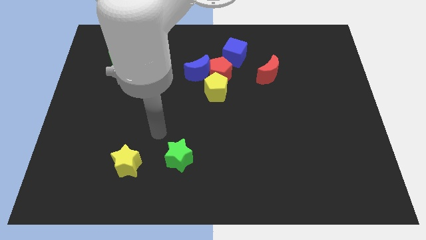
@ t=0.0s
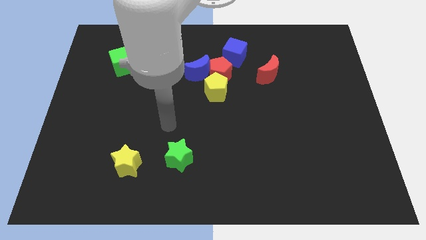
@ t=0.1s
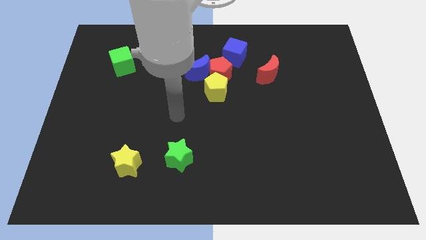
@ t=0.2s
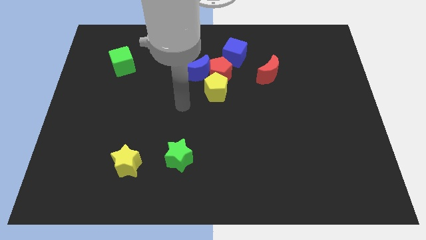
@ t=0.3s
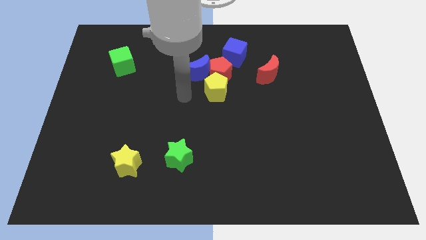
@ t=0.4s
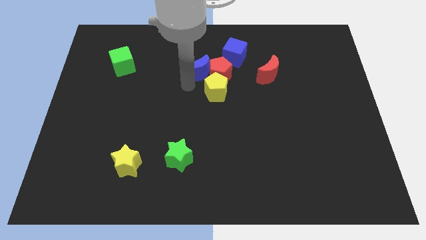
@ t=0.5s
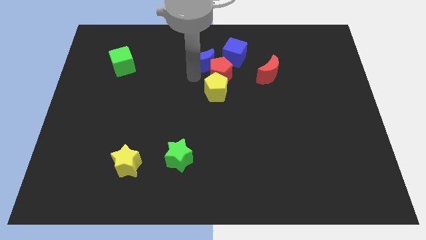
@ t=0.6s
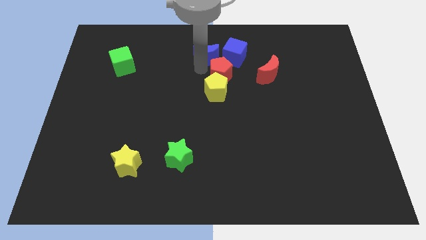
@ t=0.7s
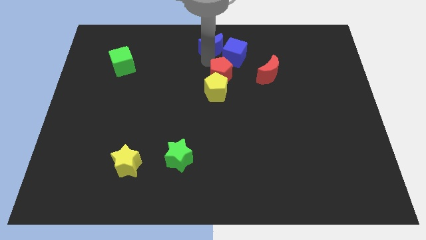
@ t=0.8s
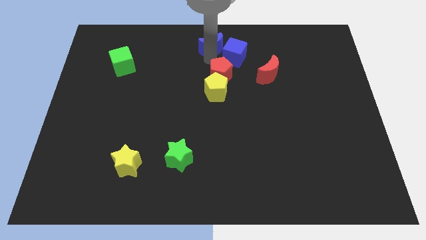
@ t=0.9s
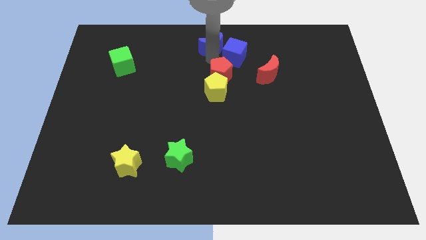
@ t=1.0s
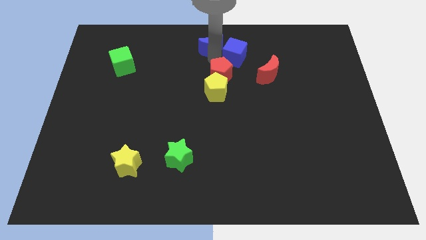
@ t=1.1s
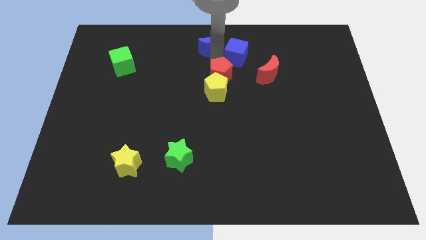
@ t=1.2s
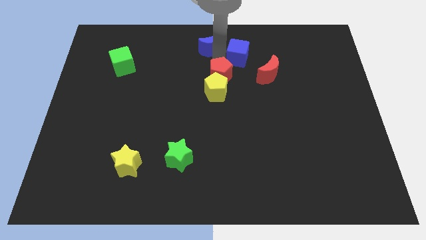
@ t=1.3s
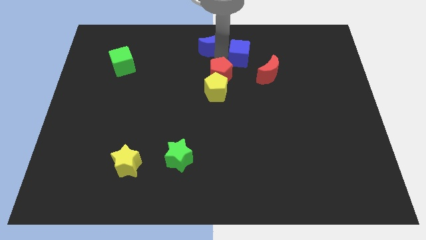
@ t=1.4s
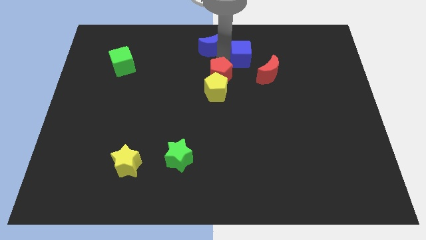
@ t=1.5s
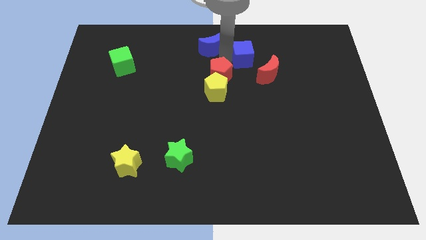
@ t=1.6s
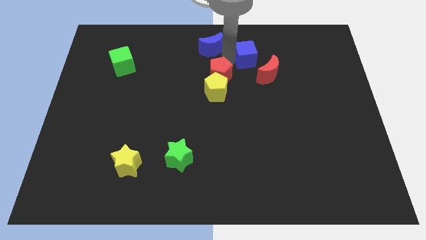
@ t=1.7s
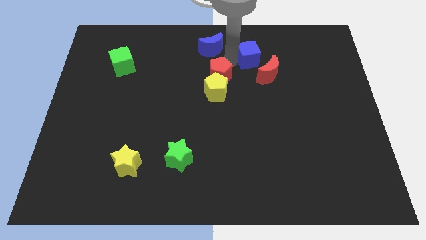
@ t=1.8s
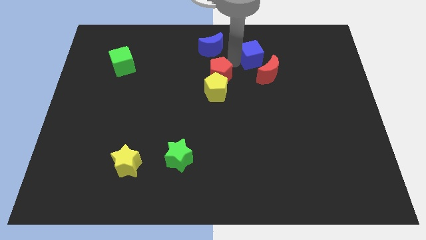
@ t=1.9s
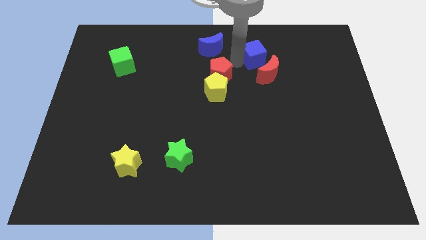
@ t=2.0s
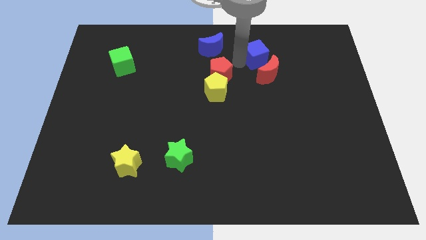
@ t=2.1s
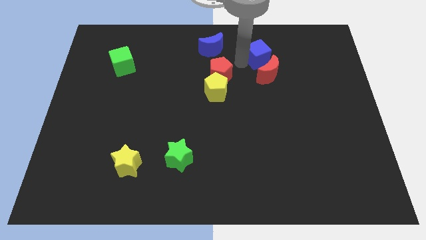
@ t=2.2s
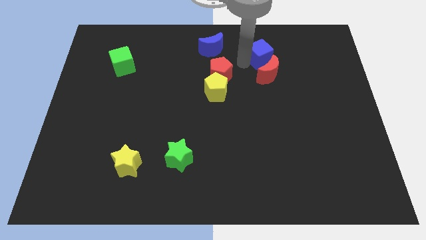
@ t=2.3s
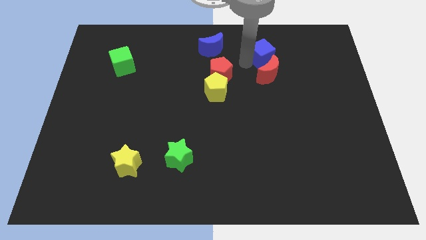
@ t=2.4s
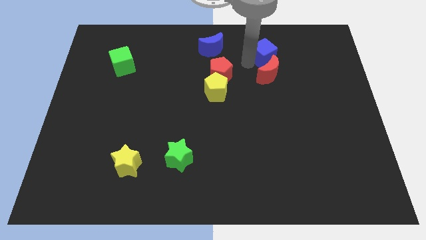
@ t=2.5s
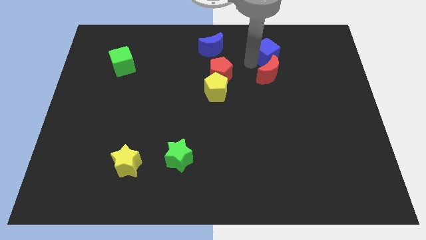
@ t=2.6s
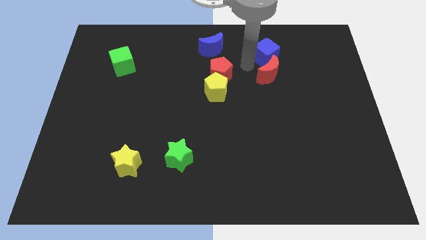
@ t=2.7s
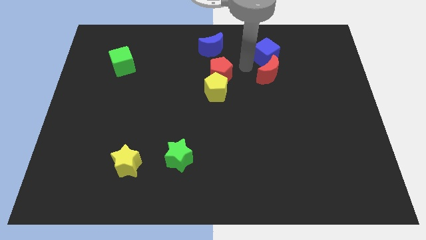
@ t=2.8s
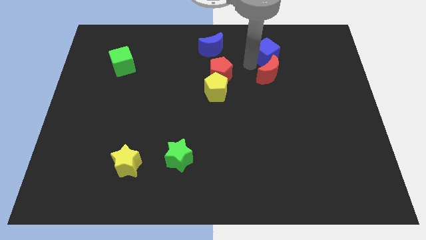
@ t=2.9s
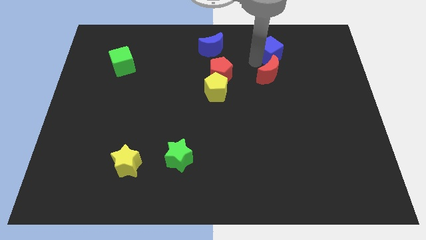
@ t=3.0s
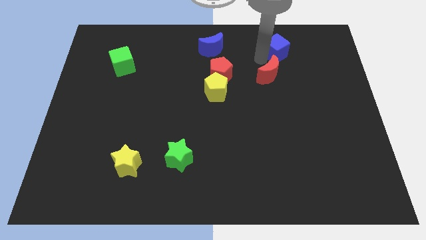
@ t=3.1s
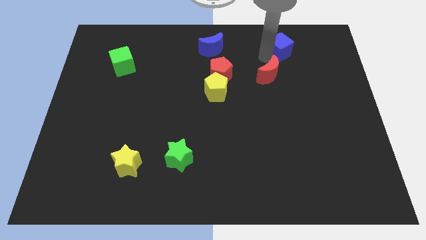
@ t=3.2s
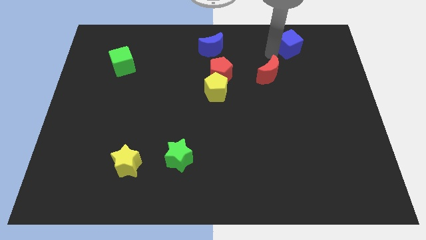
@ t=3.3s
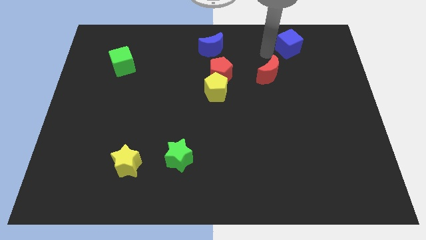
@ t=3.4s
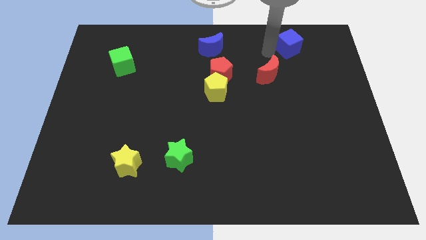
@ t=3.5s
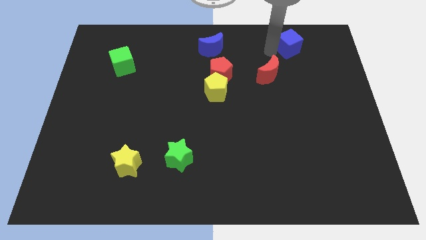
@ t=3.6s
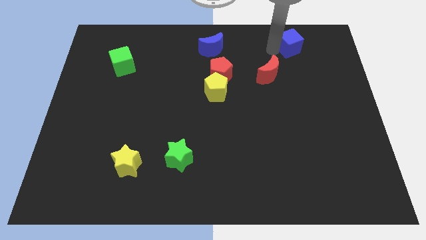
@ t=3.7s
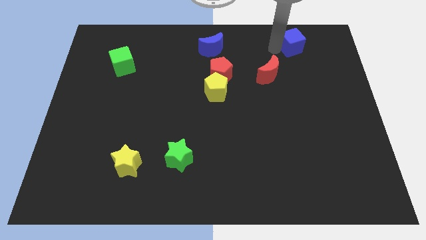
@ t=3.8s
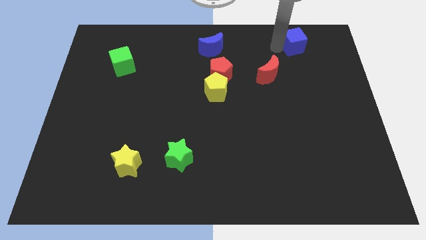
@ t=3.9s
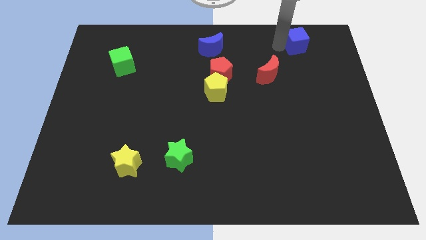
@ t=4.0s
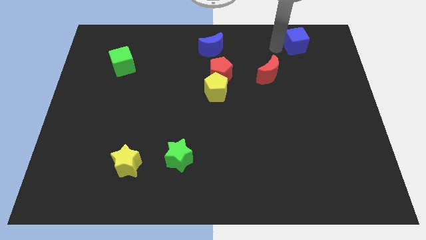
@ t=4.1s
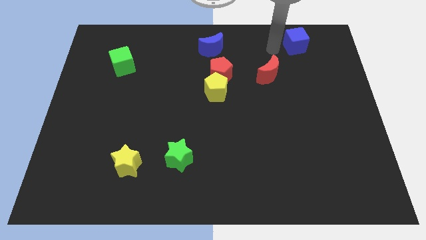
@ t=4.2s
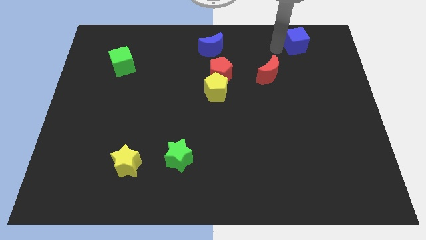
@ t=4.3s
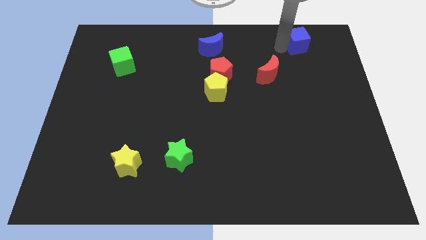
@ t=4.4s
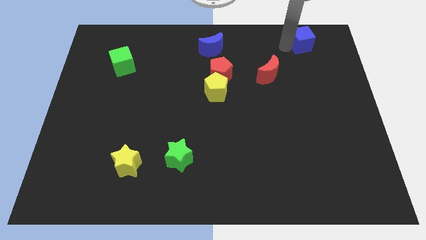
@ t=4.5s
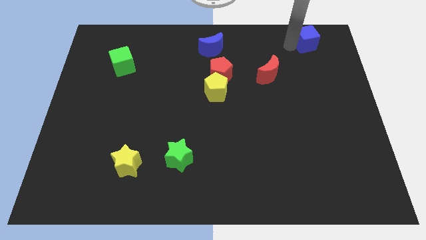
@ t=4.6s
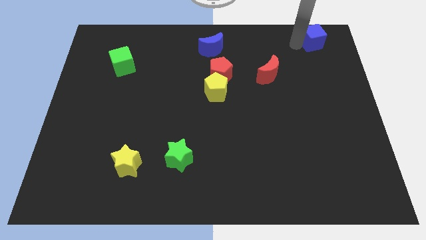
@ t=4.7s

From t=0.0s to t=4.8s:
push the blue cube to the top right corner

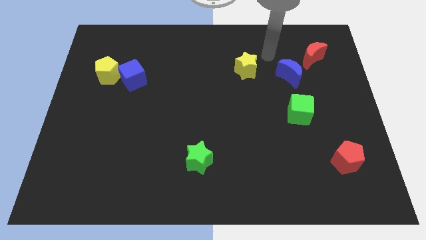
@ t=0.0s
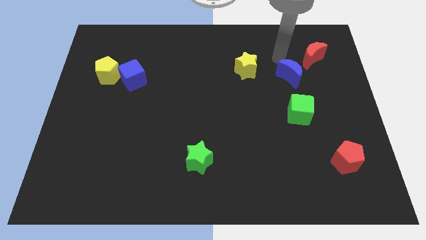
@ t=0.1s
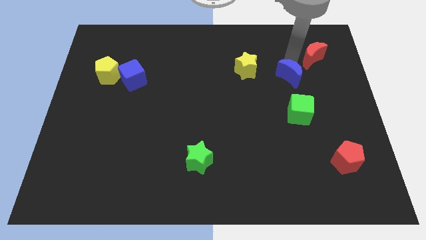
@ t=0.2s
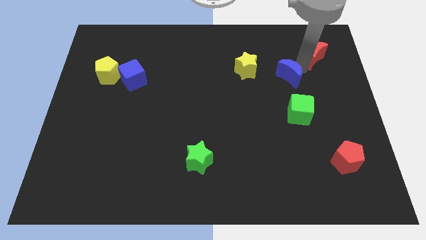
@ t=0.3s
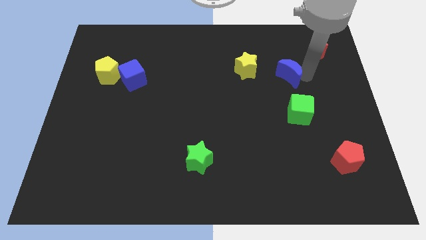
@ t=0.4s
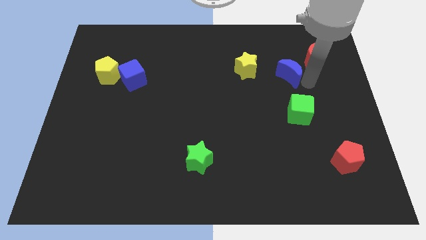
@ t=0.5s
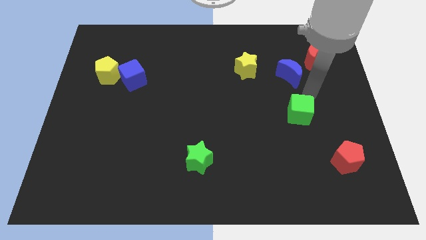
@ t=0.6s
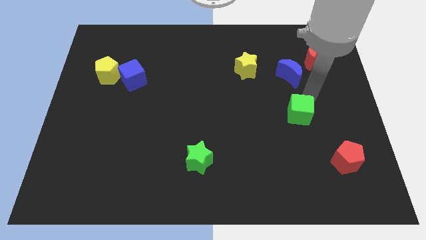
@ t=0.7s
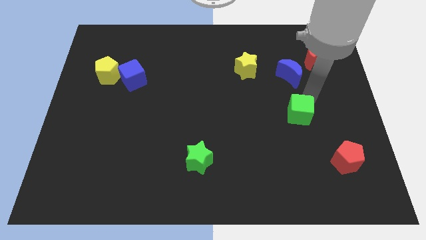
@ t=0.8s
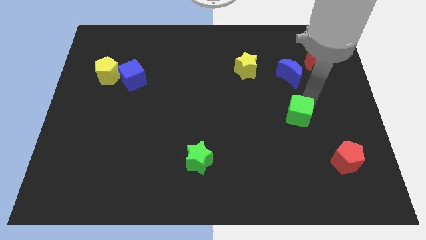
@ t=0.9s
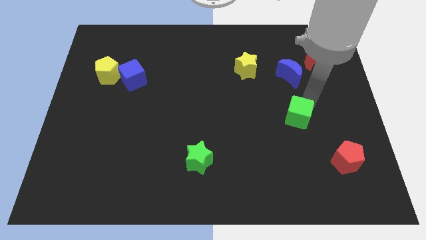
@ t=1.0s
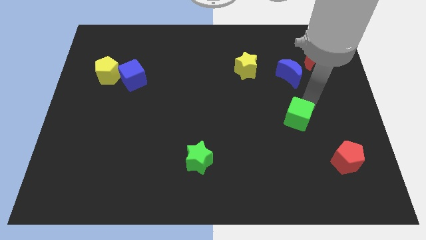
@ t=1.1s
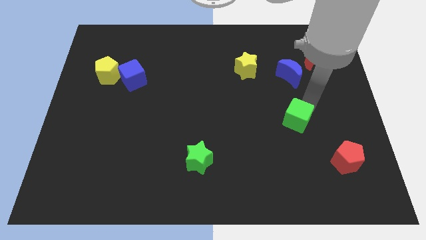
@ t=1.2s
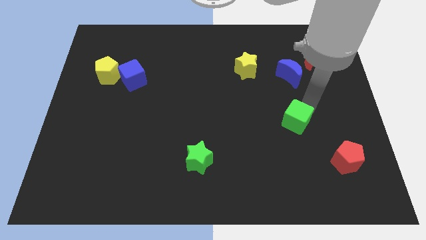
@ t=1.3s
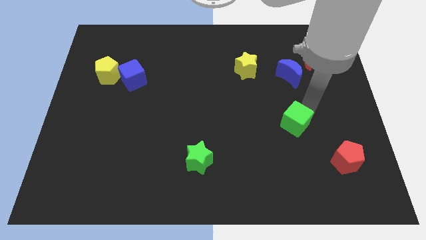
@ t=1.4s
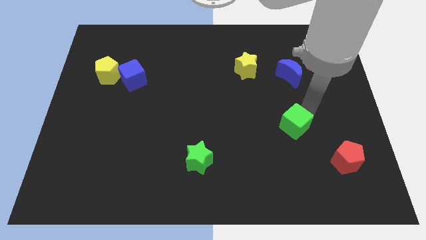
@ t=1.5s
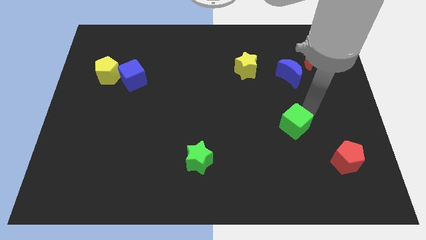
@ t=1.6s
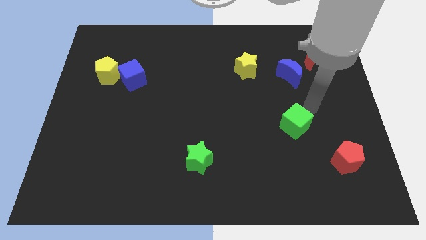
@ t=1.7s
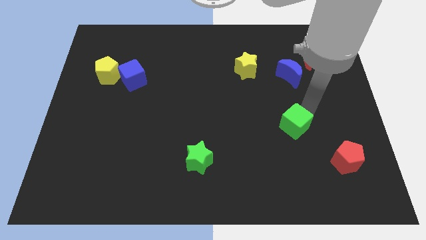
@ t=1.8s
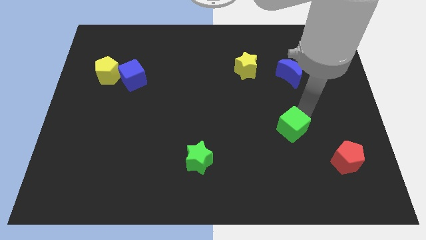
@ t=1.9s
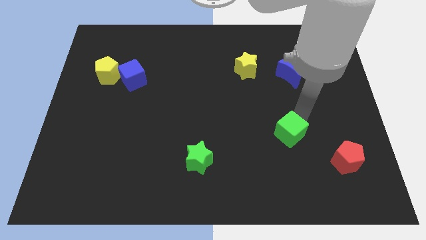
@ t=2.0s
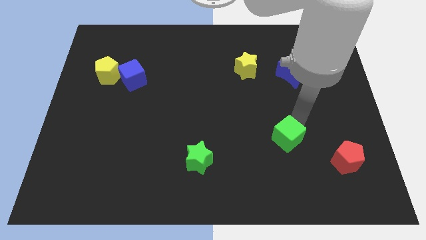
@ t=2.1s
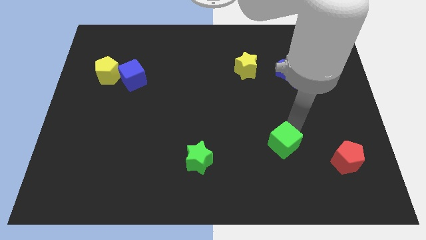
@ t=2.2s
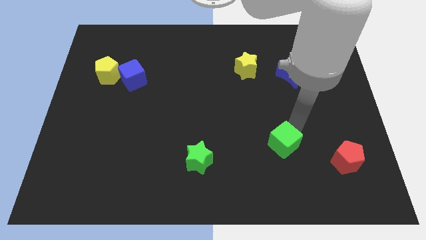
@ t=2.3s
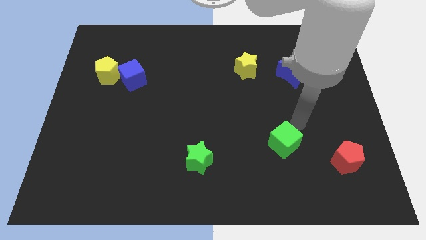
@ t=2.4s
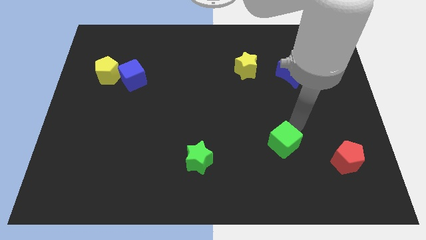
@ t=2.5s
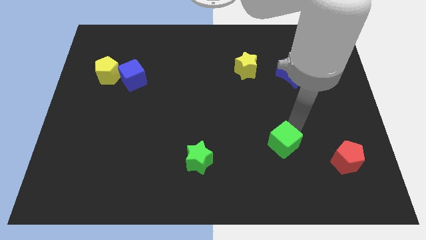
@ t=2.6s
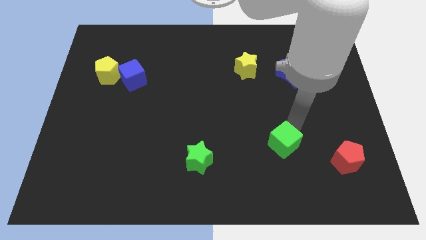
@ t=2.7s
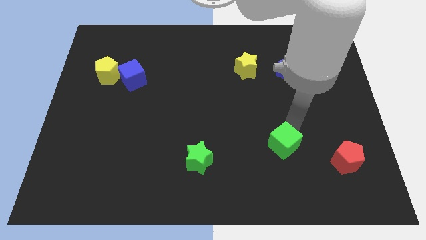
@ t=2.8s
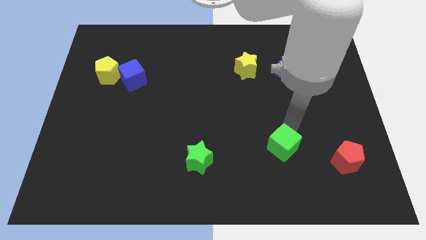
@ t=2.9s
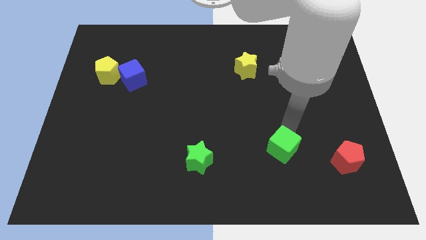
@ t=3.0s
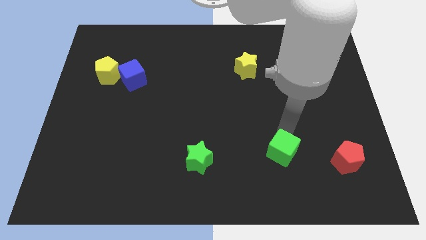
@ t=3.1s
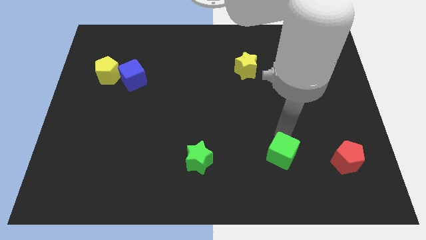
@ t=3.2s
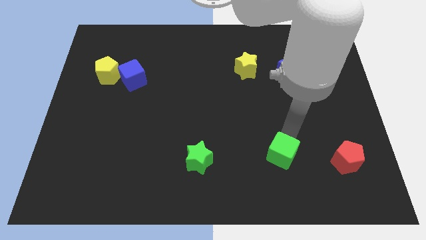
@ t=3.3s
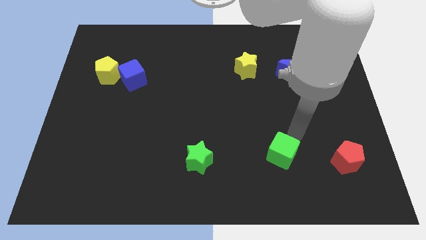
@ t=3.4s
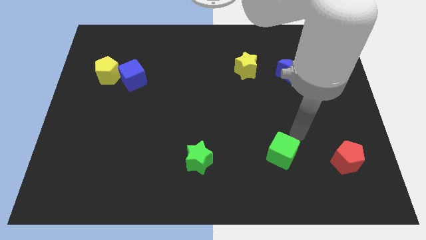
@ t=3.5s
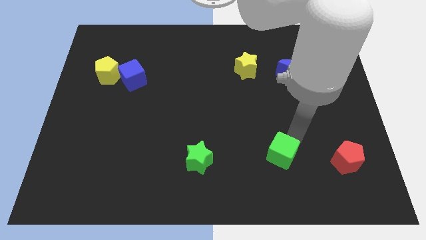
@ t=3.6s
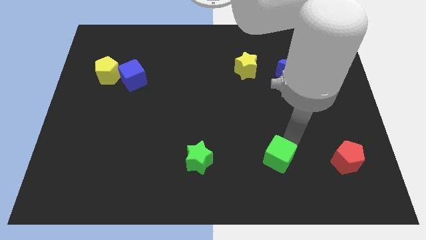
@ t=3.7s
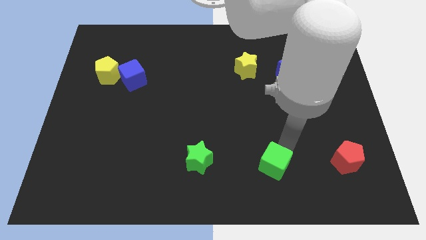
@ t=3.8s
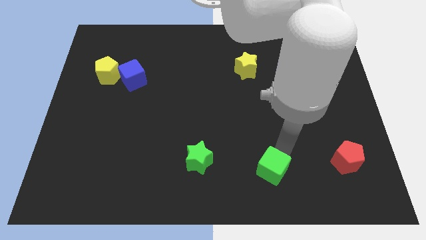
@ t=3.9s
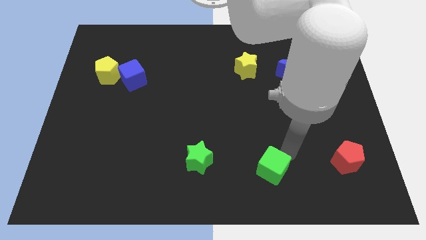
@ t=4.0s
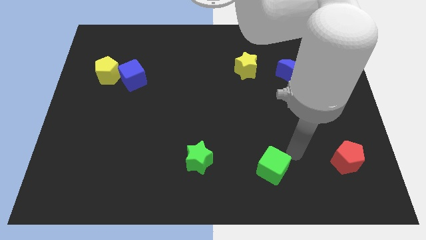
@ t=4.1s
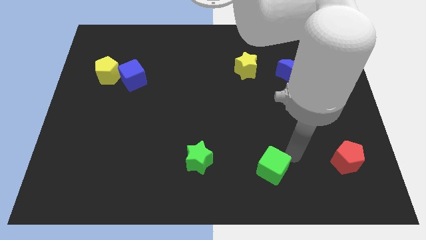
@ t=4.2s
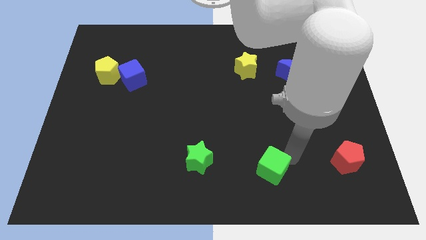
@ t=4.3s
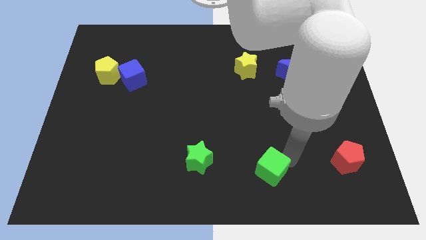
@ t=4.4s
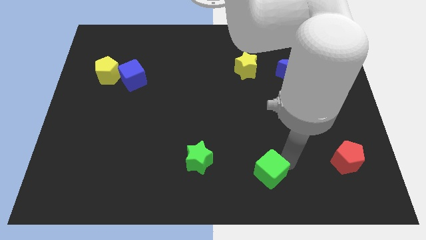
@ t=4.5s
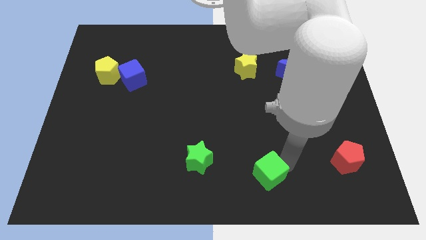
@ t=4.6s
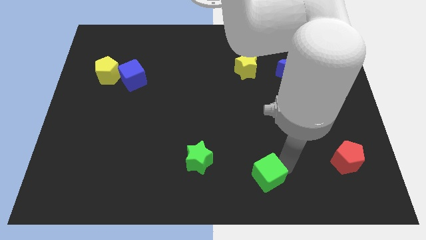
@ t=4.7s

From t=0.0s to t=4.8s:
push the green cube to the bottom
